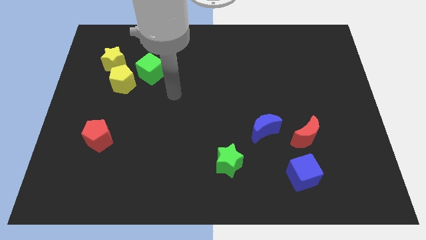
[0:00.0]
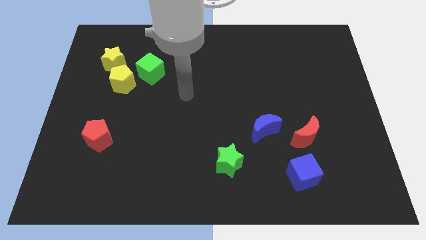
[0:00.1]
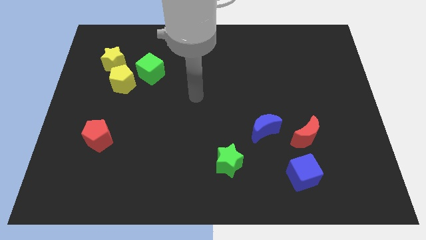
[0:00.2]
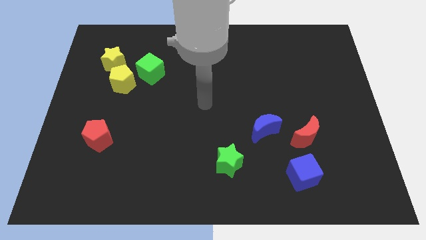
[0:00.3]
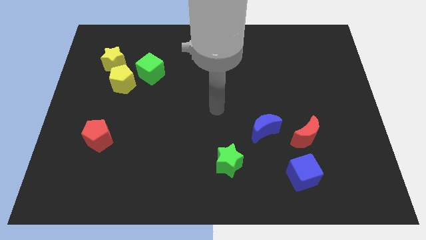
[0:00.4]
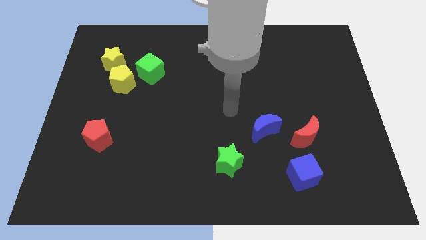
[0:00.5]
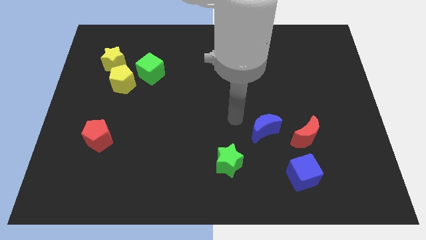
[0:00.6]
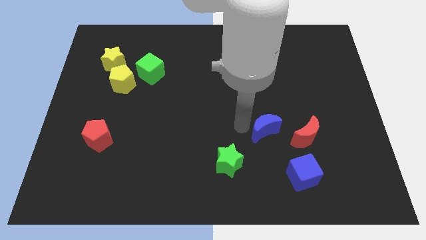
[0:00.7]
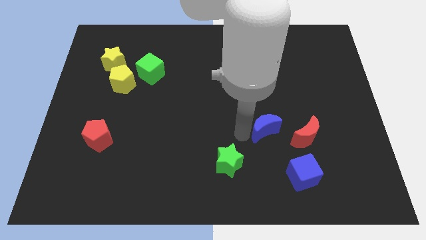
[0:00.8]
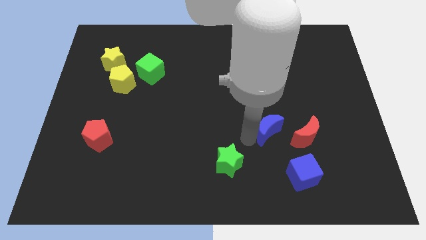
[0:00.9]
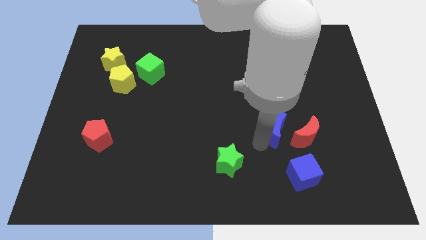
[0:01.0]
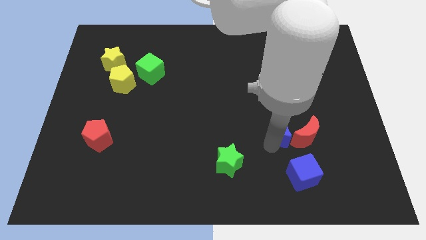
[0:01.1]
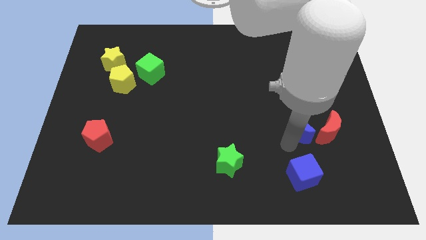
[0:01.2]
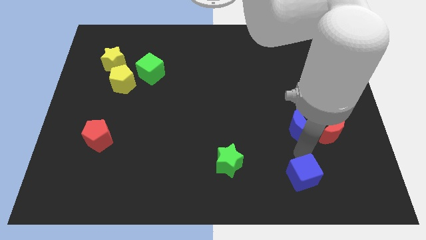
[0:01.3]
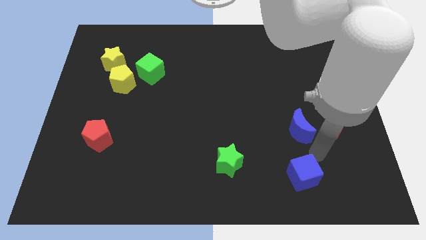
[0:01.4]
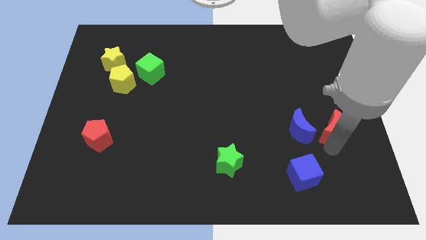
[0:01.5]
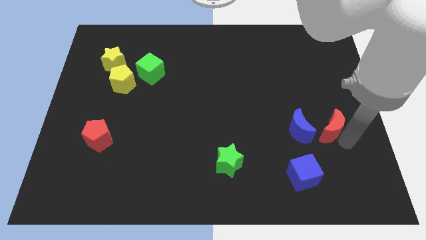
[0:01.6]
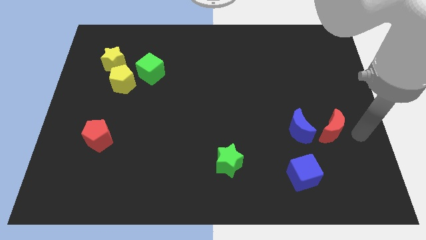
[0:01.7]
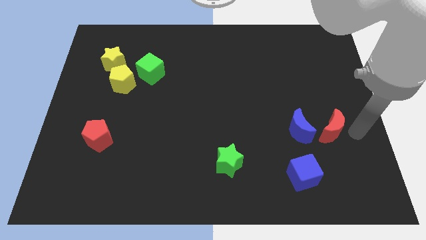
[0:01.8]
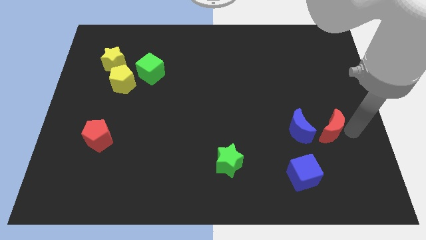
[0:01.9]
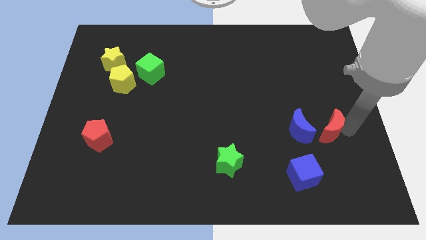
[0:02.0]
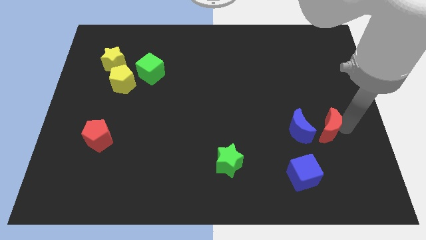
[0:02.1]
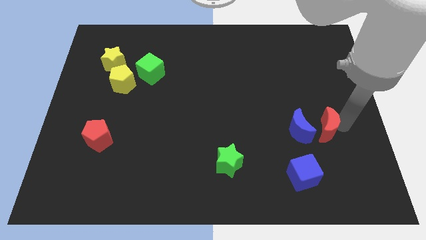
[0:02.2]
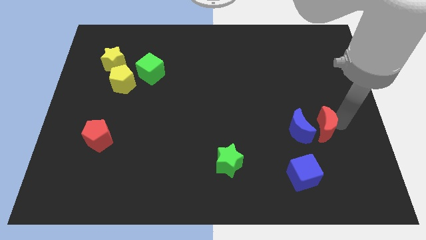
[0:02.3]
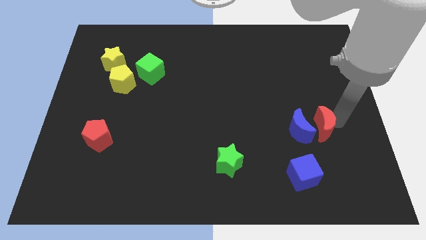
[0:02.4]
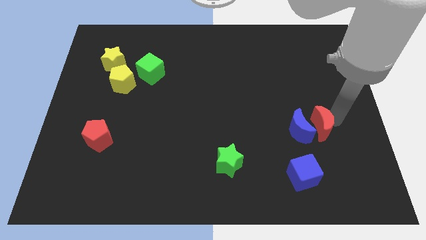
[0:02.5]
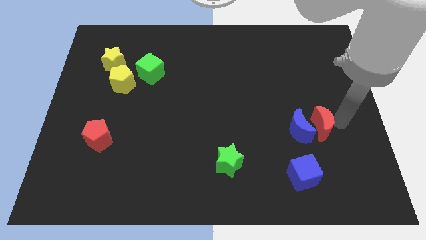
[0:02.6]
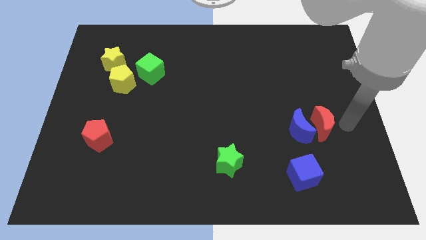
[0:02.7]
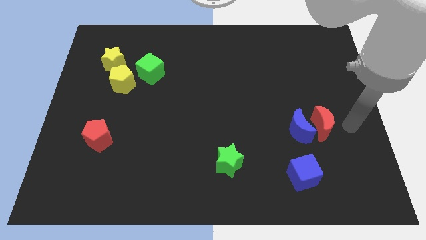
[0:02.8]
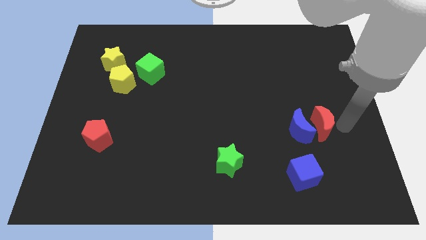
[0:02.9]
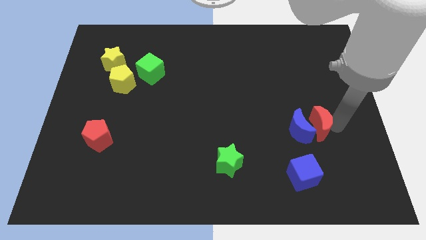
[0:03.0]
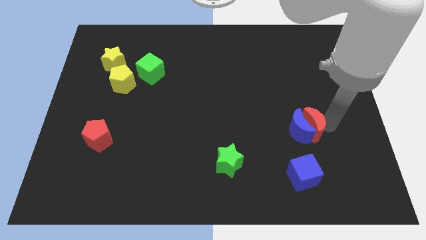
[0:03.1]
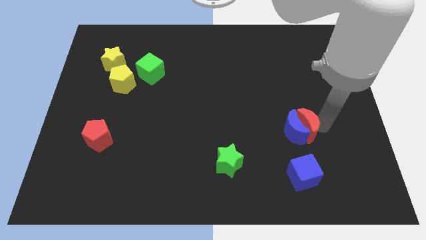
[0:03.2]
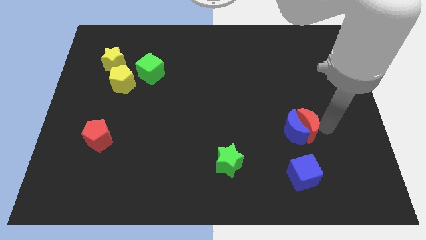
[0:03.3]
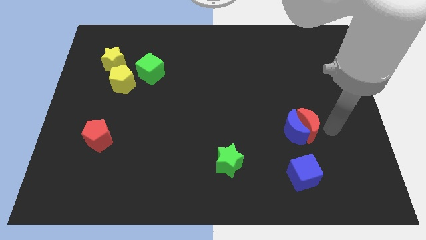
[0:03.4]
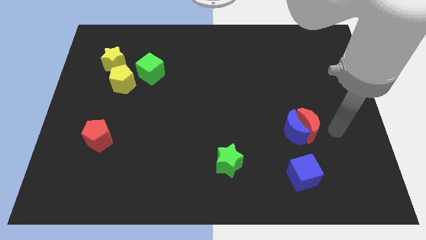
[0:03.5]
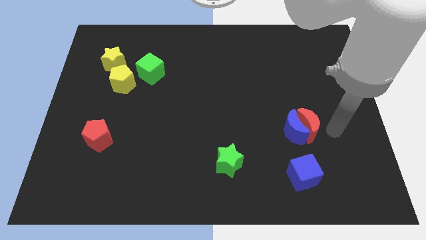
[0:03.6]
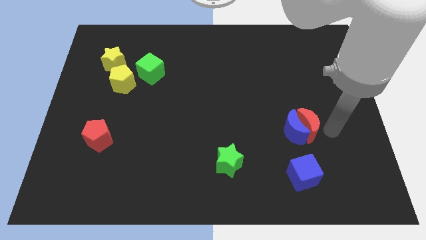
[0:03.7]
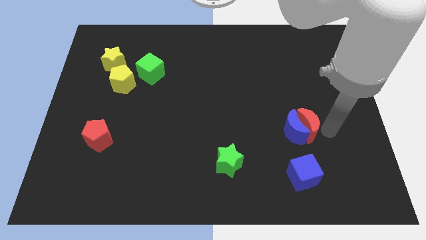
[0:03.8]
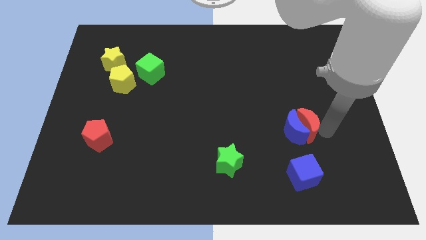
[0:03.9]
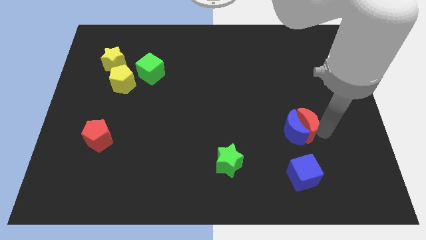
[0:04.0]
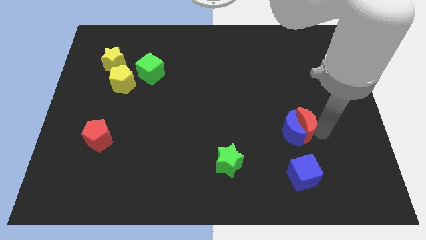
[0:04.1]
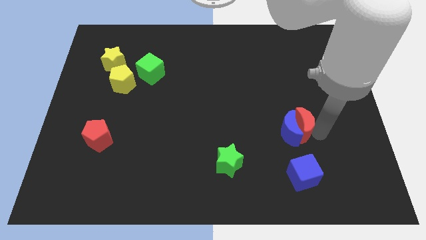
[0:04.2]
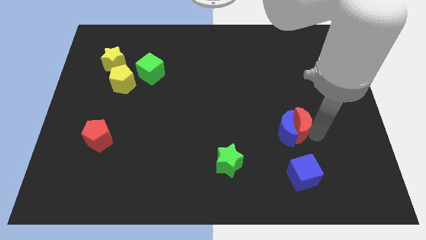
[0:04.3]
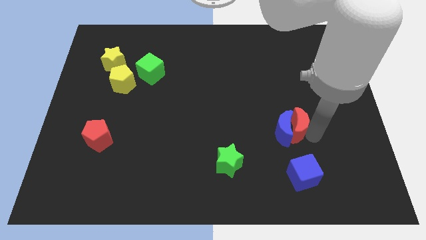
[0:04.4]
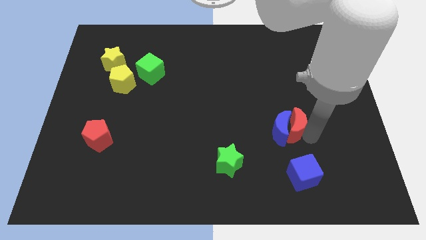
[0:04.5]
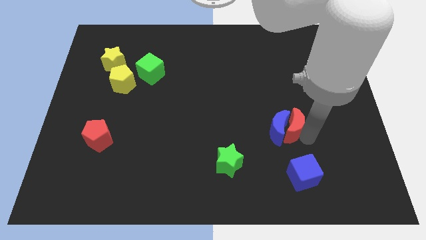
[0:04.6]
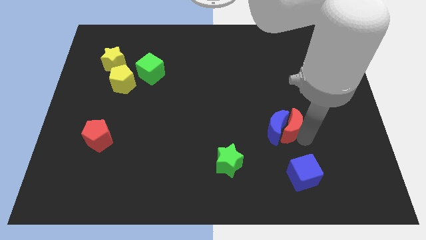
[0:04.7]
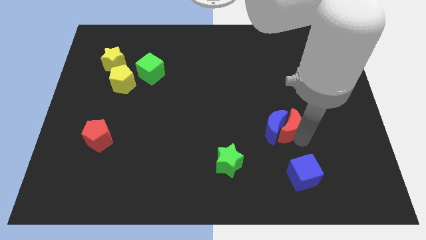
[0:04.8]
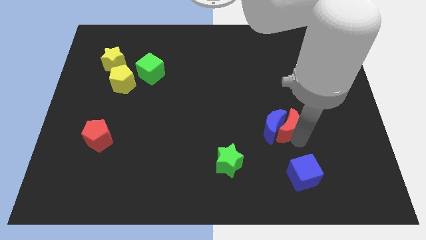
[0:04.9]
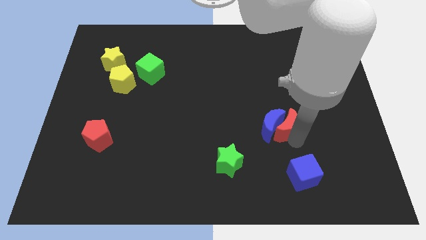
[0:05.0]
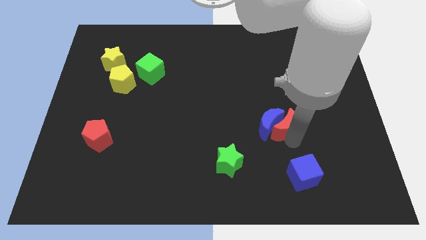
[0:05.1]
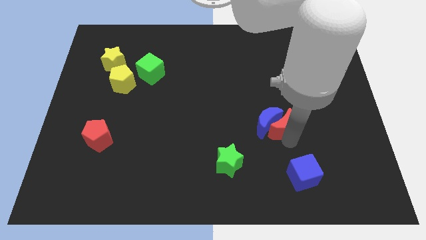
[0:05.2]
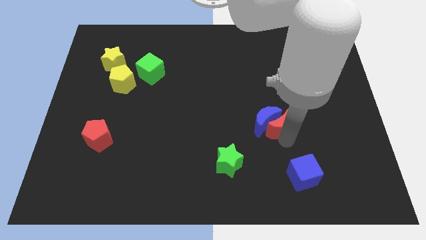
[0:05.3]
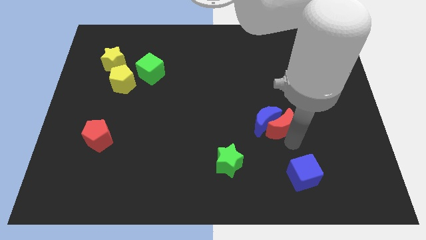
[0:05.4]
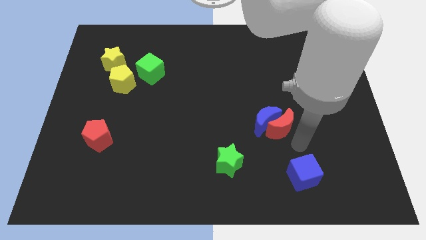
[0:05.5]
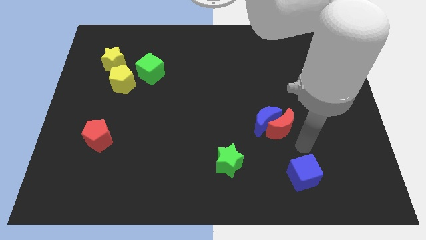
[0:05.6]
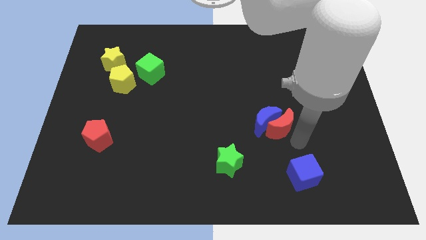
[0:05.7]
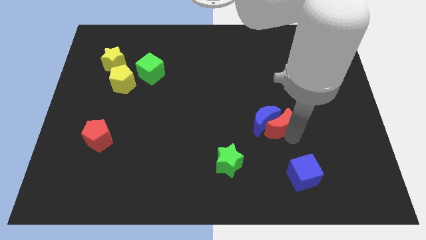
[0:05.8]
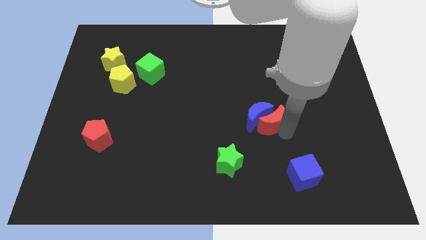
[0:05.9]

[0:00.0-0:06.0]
slide the red moon a little bit left

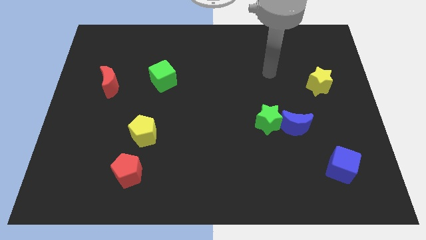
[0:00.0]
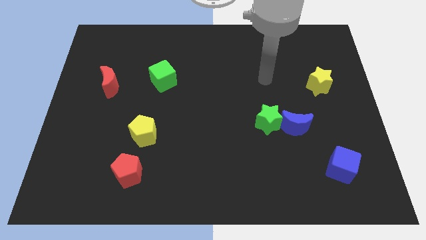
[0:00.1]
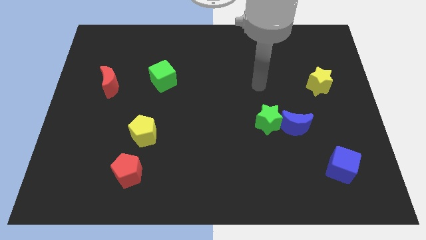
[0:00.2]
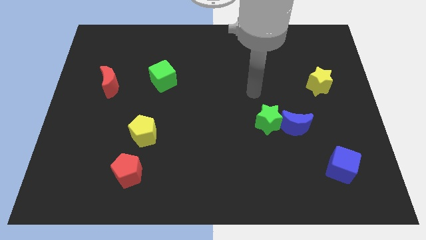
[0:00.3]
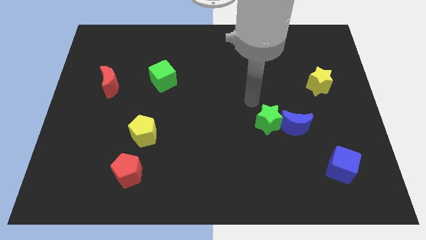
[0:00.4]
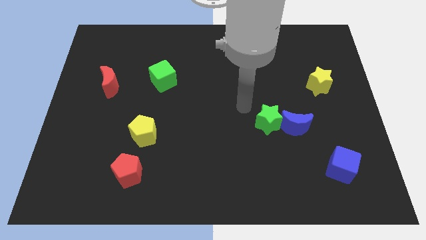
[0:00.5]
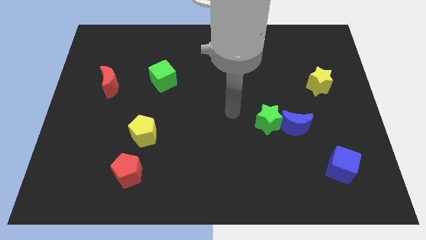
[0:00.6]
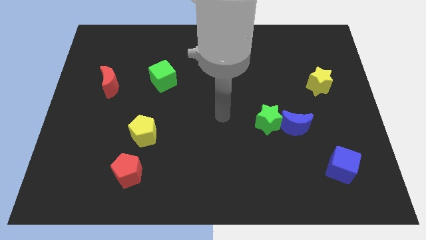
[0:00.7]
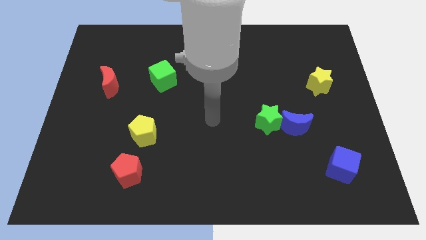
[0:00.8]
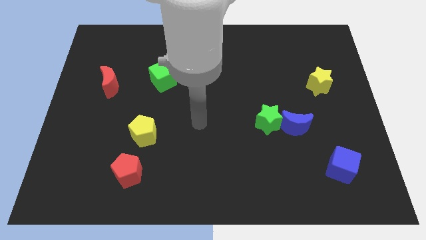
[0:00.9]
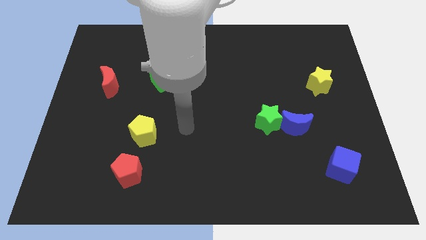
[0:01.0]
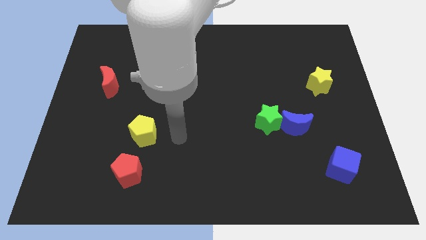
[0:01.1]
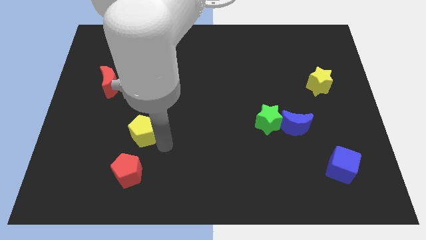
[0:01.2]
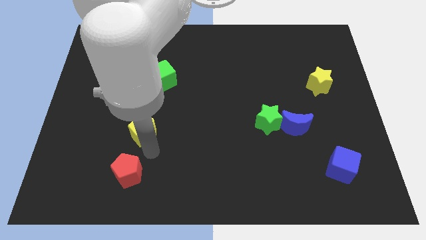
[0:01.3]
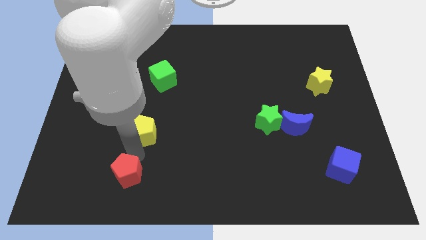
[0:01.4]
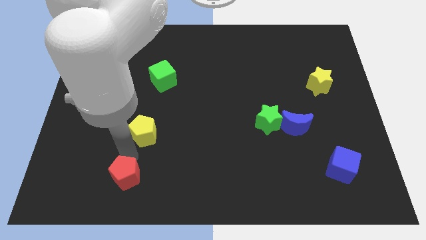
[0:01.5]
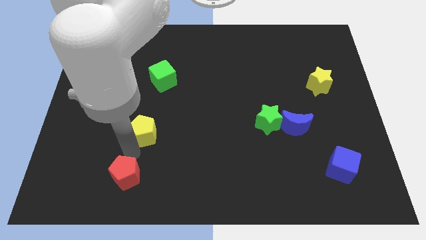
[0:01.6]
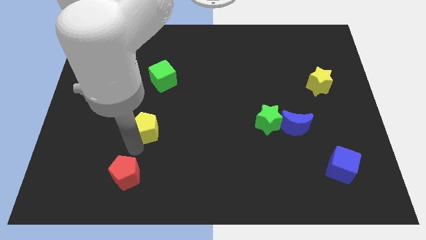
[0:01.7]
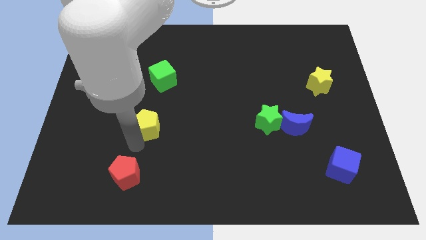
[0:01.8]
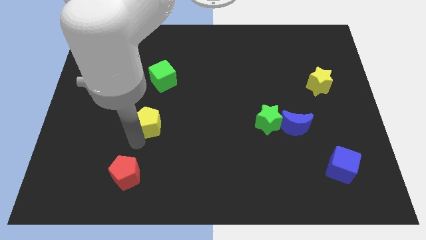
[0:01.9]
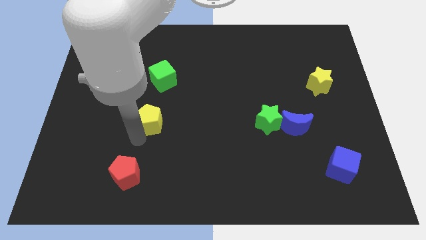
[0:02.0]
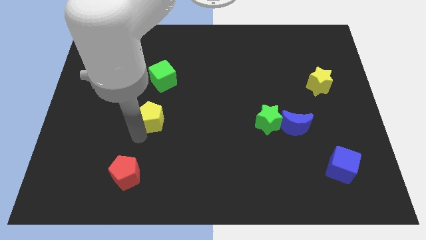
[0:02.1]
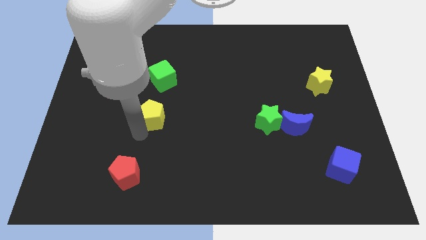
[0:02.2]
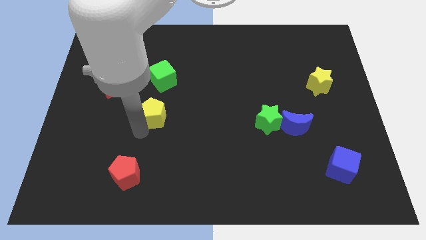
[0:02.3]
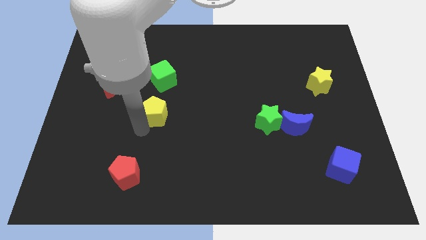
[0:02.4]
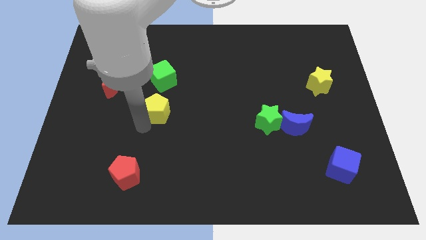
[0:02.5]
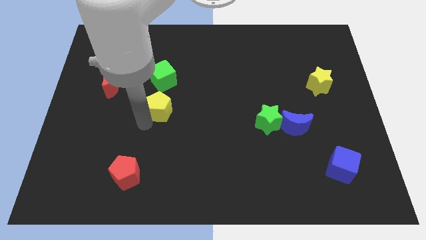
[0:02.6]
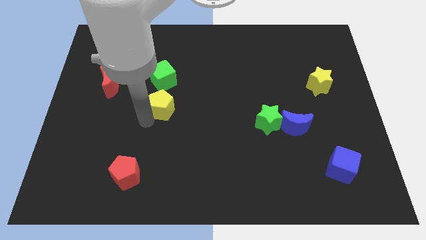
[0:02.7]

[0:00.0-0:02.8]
slide the yellow pentagon a little bit diagonally up and to the right
